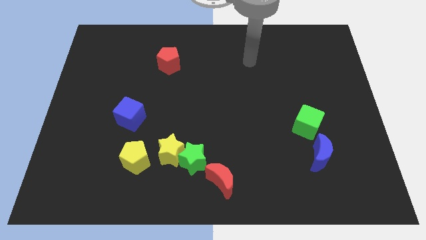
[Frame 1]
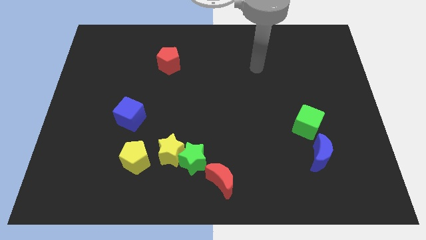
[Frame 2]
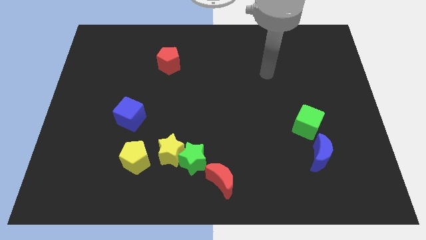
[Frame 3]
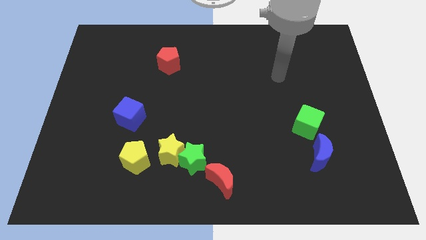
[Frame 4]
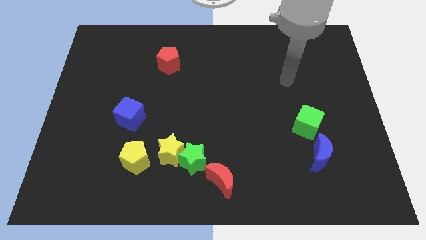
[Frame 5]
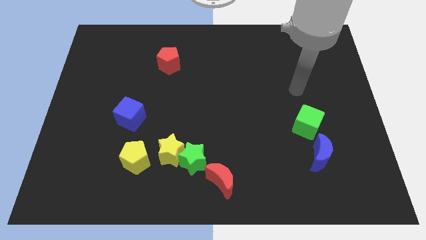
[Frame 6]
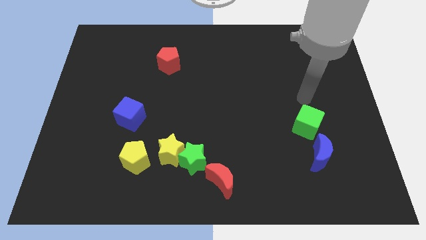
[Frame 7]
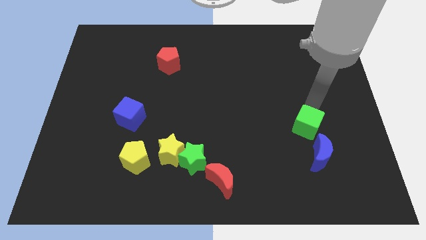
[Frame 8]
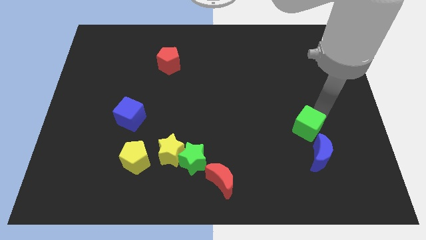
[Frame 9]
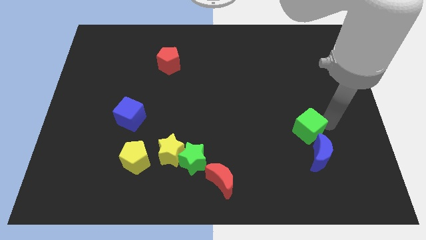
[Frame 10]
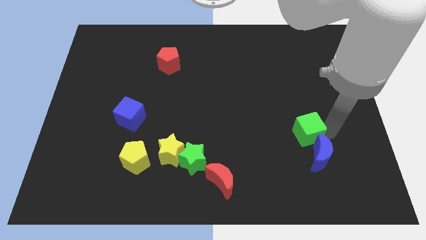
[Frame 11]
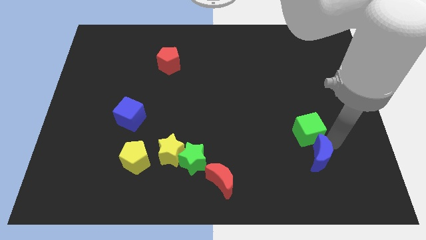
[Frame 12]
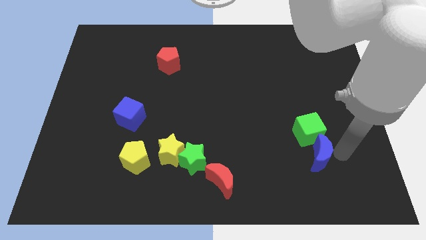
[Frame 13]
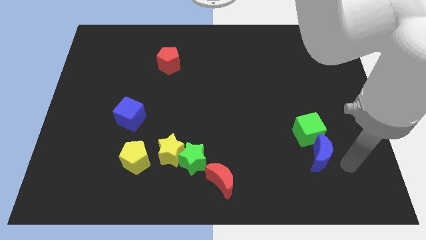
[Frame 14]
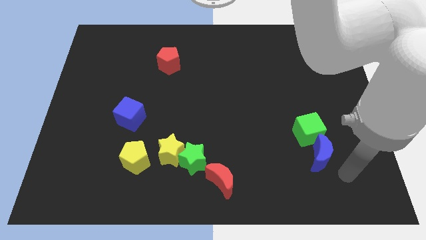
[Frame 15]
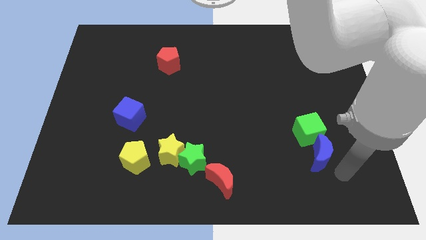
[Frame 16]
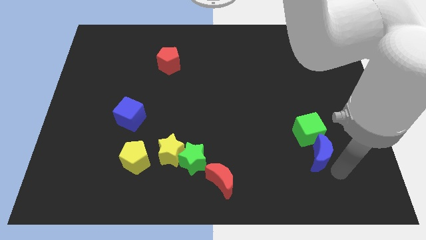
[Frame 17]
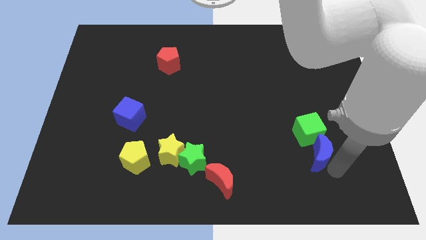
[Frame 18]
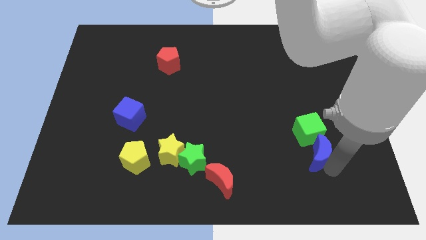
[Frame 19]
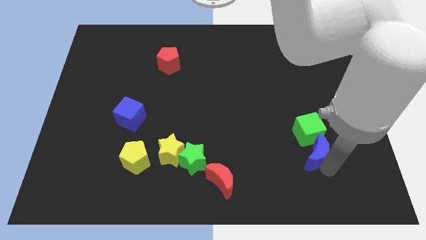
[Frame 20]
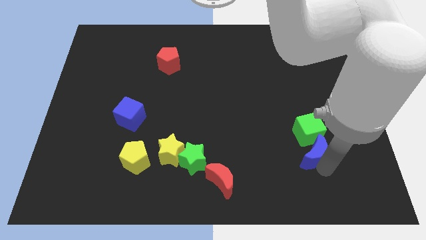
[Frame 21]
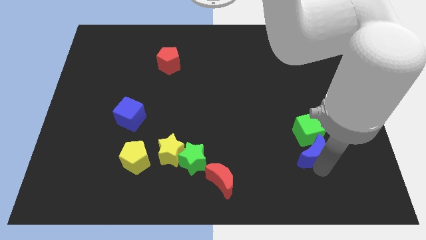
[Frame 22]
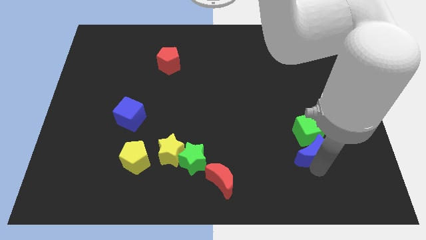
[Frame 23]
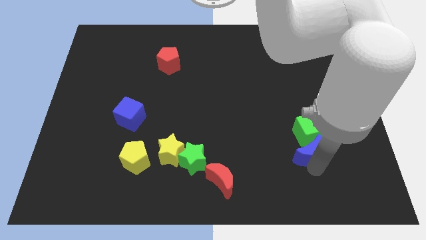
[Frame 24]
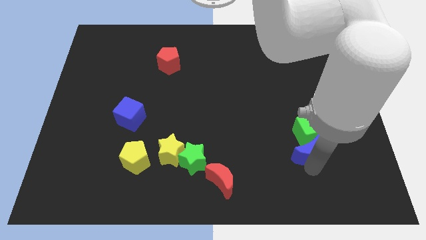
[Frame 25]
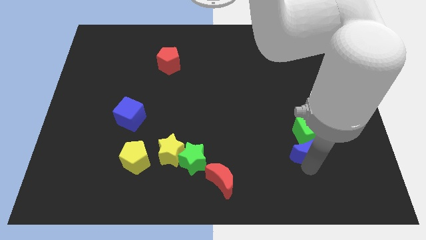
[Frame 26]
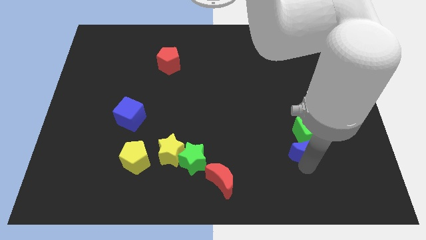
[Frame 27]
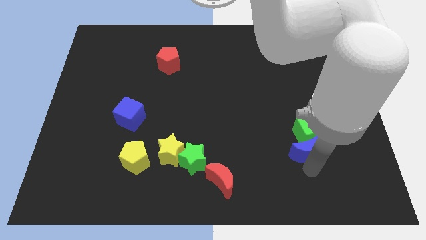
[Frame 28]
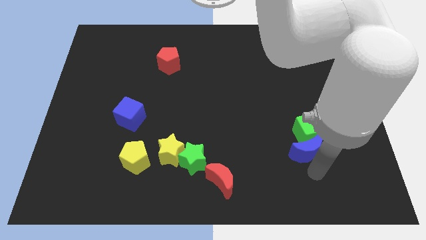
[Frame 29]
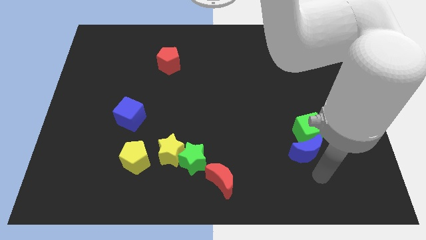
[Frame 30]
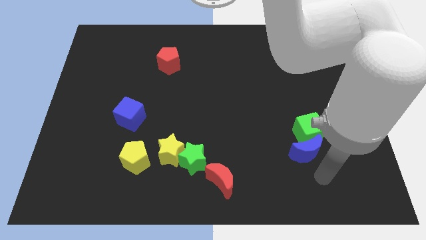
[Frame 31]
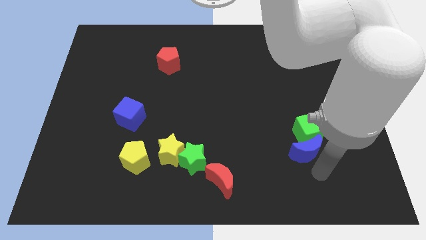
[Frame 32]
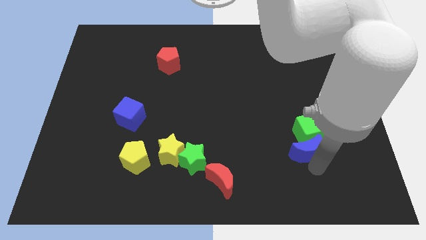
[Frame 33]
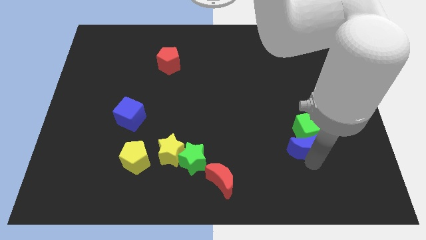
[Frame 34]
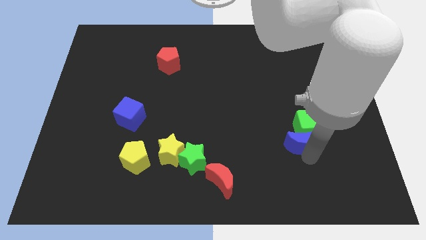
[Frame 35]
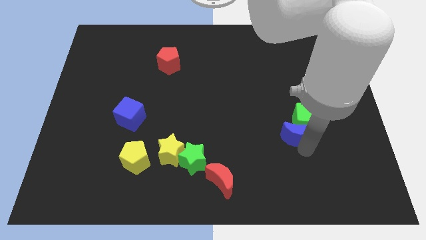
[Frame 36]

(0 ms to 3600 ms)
move the blue moon somewhat diagonally upwards and left

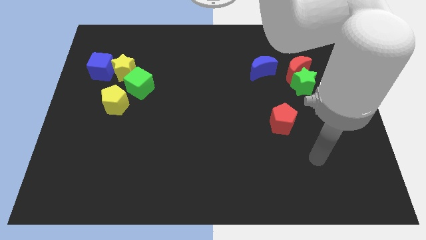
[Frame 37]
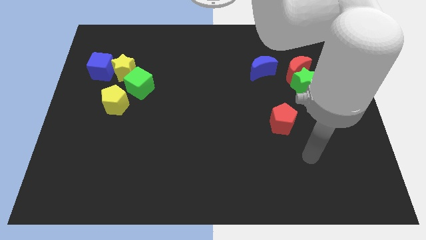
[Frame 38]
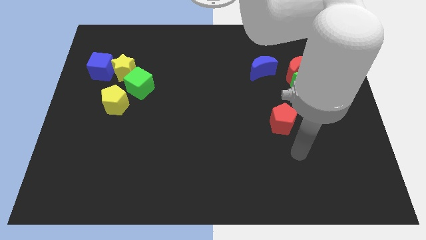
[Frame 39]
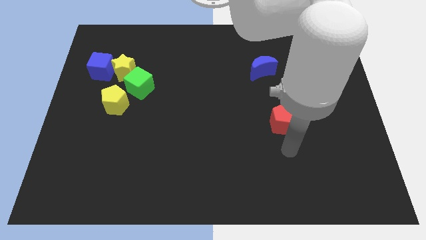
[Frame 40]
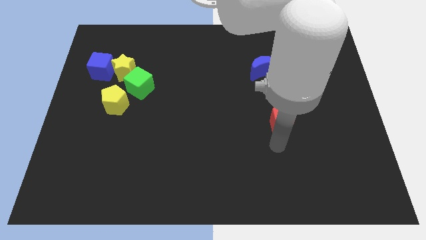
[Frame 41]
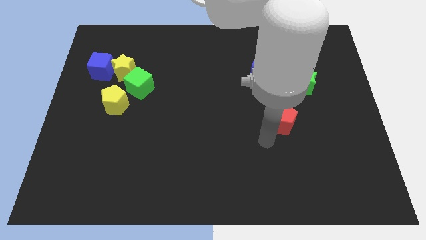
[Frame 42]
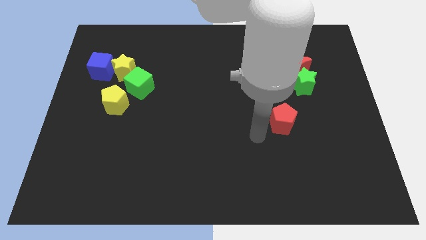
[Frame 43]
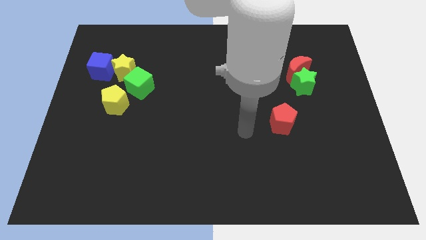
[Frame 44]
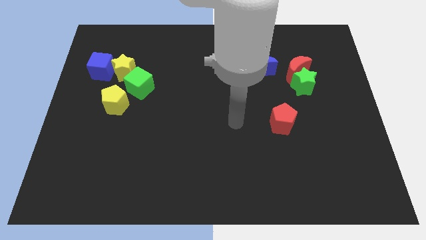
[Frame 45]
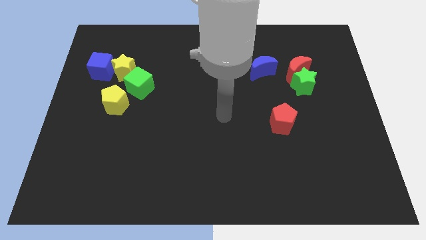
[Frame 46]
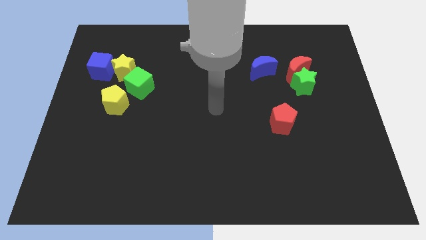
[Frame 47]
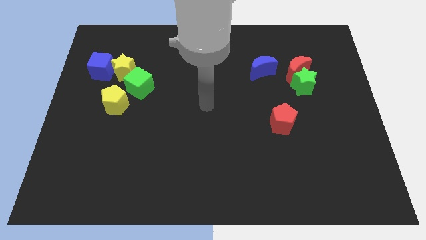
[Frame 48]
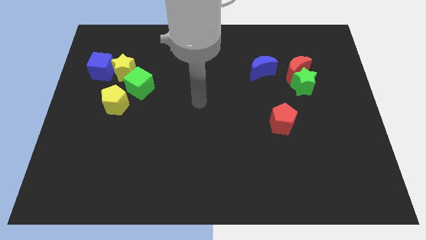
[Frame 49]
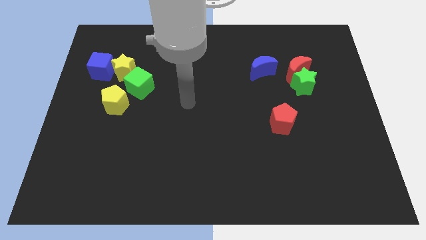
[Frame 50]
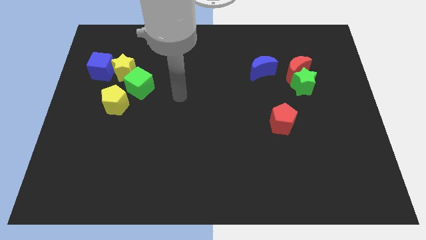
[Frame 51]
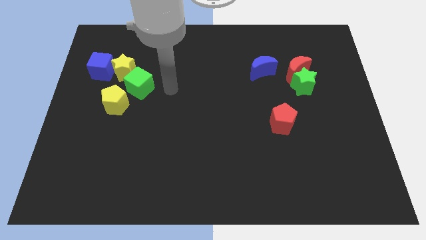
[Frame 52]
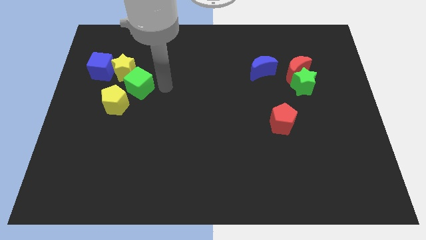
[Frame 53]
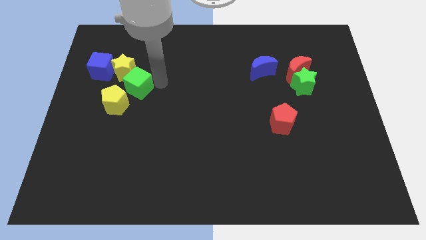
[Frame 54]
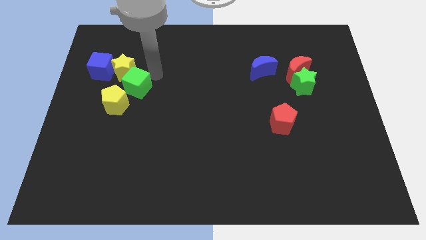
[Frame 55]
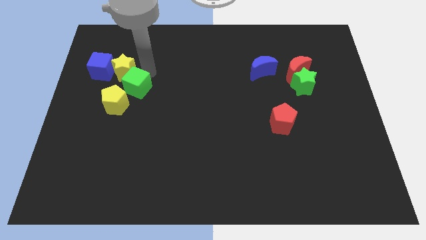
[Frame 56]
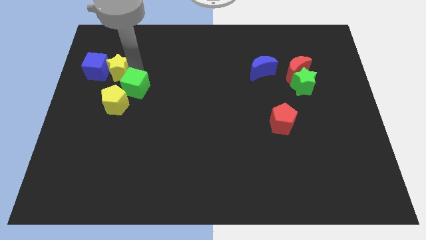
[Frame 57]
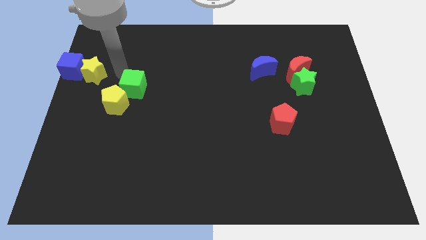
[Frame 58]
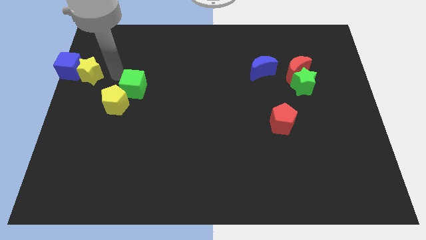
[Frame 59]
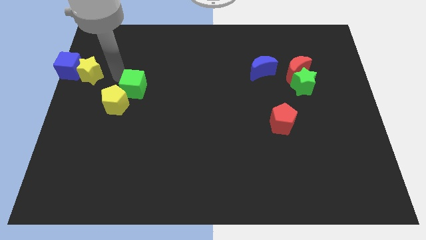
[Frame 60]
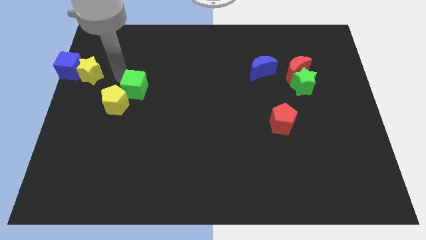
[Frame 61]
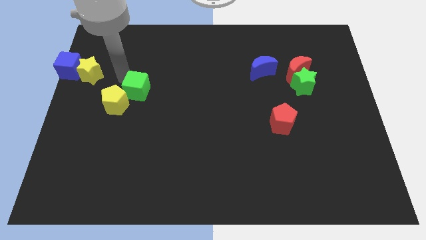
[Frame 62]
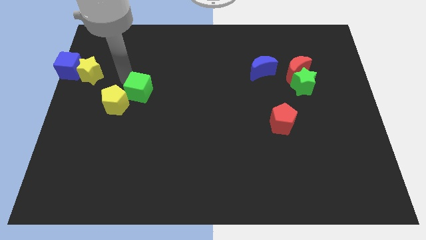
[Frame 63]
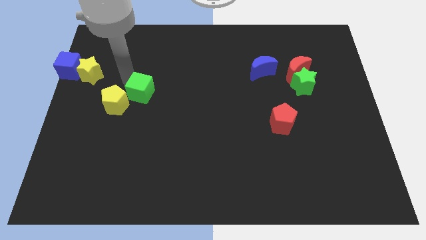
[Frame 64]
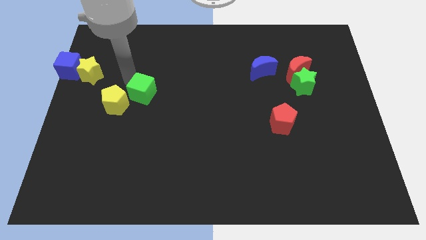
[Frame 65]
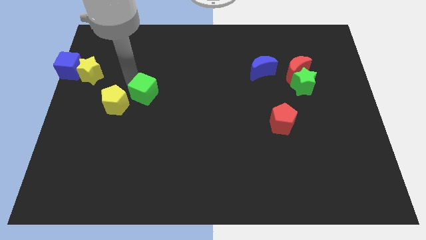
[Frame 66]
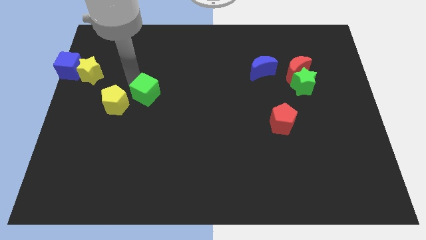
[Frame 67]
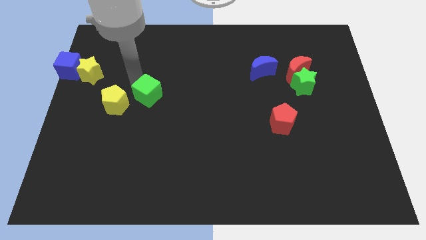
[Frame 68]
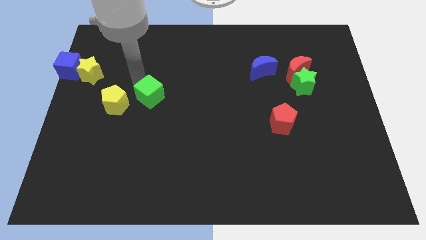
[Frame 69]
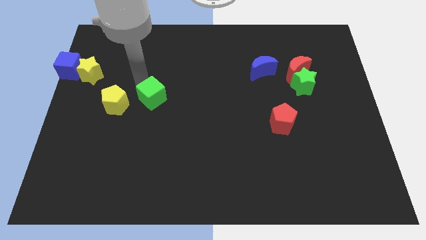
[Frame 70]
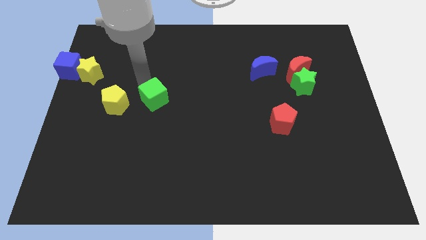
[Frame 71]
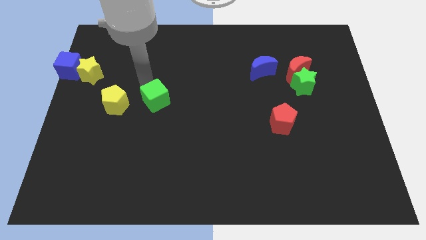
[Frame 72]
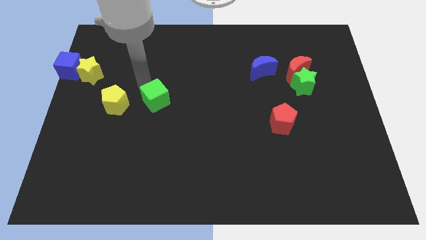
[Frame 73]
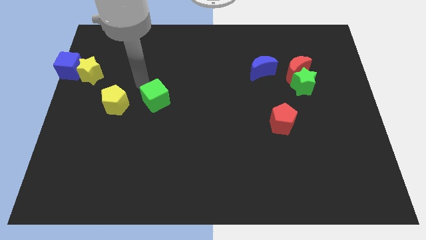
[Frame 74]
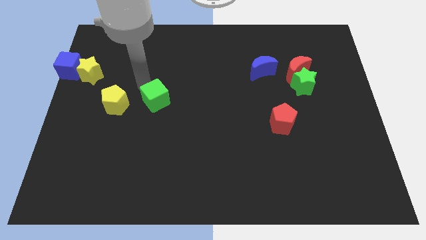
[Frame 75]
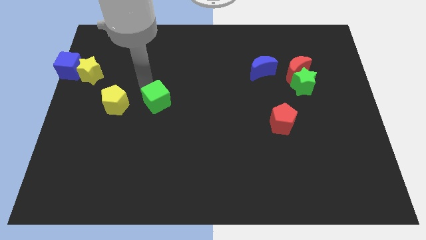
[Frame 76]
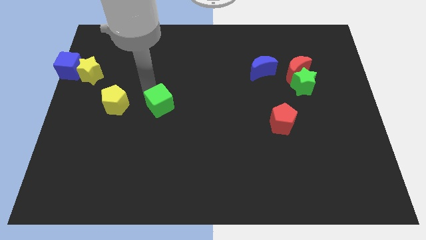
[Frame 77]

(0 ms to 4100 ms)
push the green cube diagonally downwards and to the right somewhat
